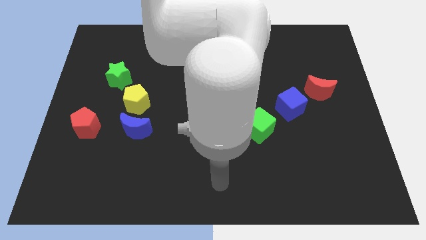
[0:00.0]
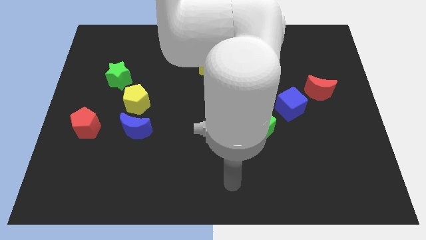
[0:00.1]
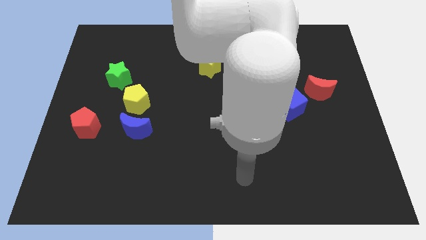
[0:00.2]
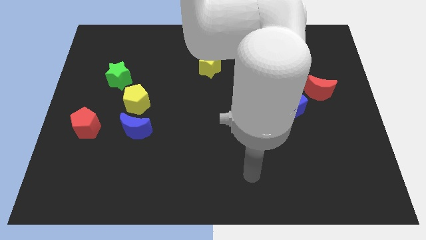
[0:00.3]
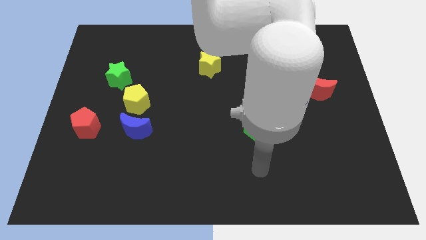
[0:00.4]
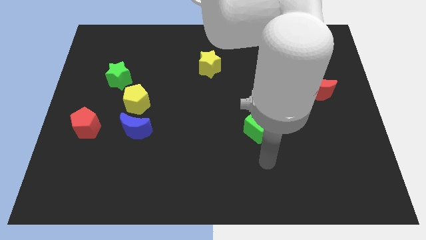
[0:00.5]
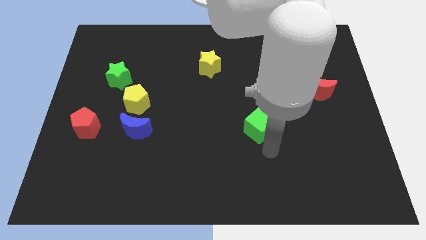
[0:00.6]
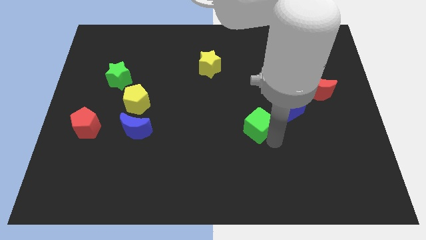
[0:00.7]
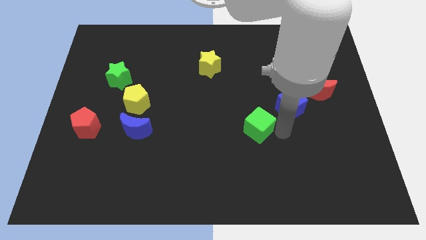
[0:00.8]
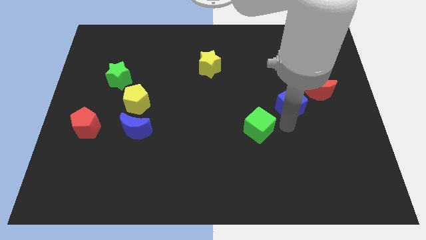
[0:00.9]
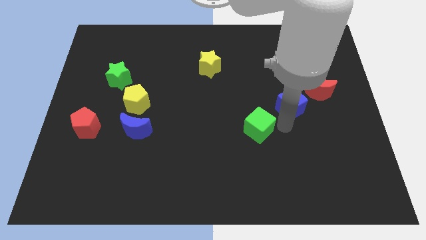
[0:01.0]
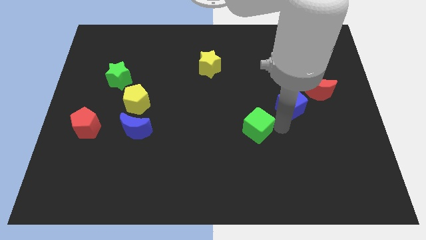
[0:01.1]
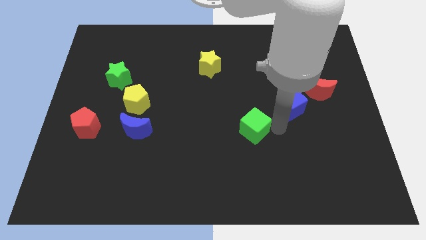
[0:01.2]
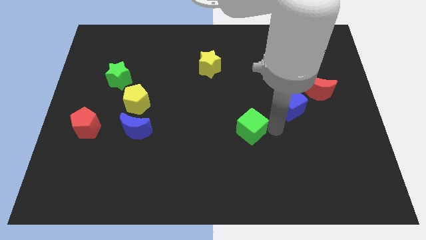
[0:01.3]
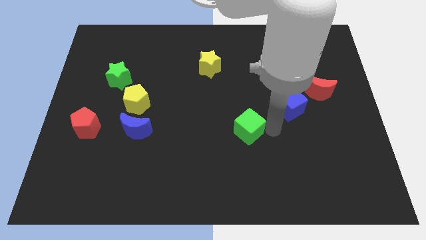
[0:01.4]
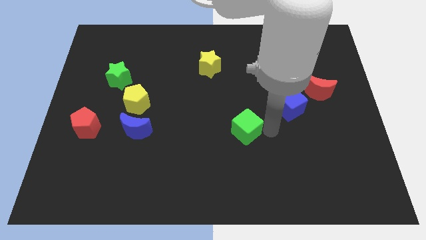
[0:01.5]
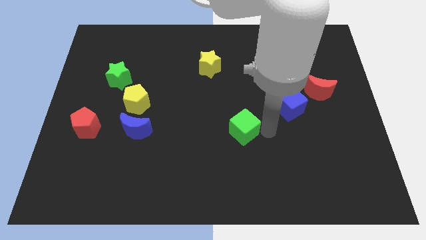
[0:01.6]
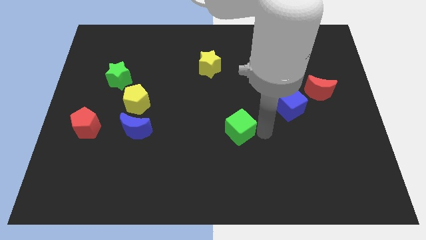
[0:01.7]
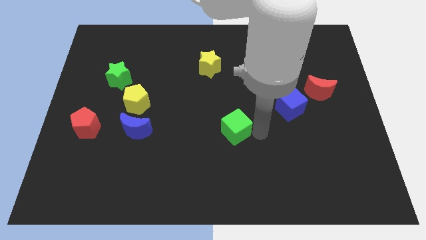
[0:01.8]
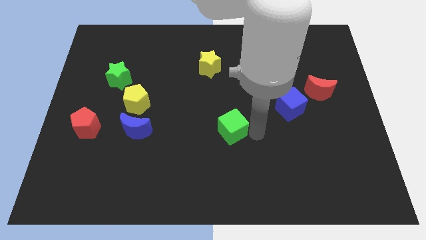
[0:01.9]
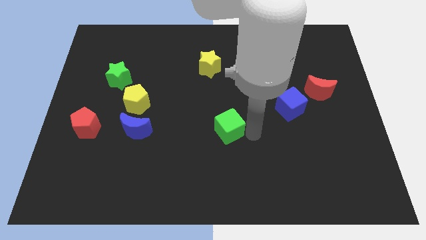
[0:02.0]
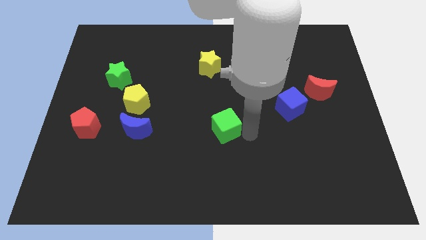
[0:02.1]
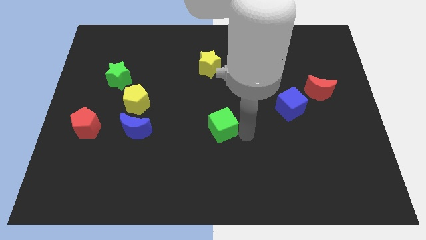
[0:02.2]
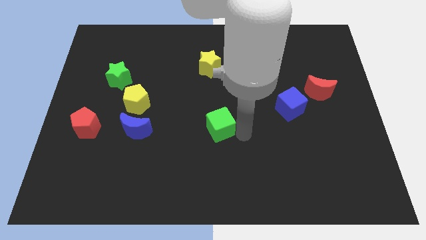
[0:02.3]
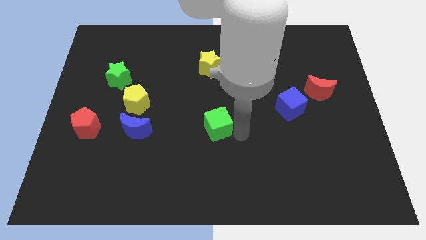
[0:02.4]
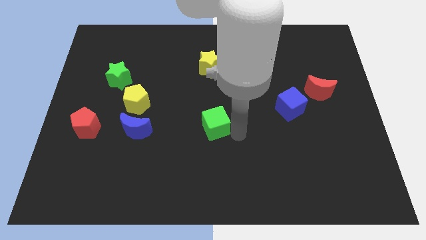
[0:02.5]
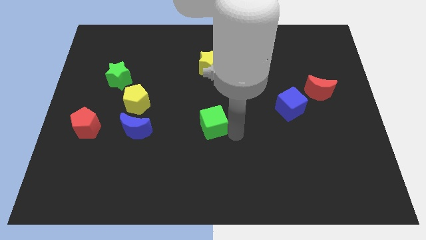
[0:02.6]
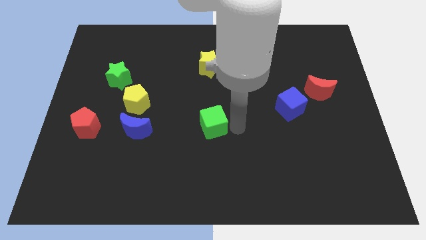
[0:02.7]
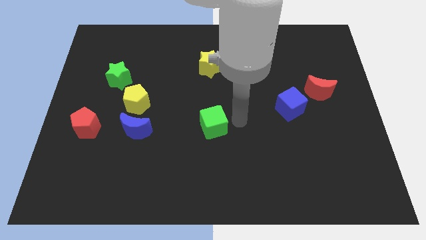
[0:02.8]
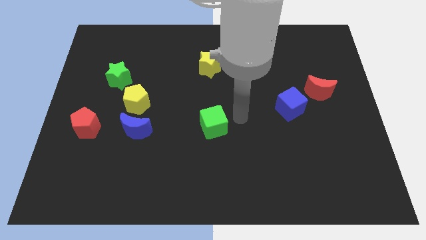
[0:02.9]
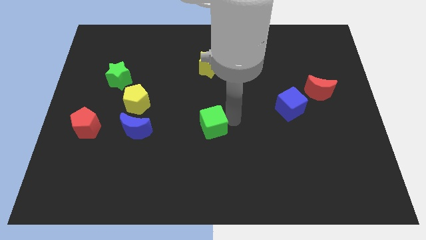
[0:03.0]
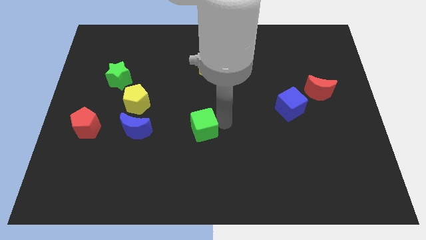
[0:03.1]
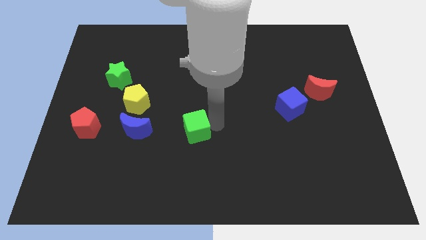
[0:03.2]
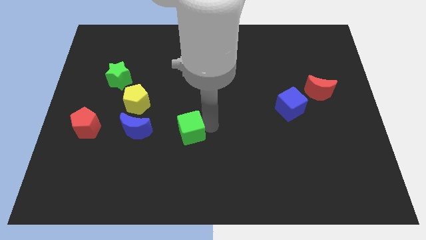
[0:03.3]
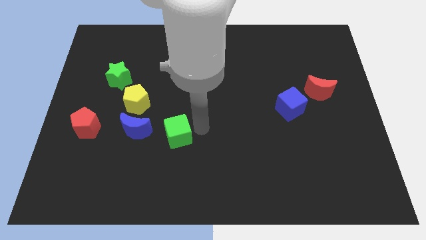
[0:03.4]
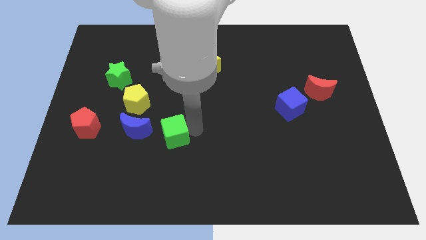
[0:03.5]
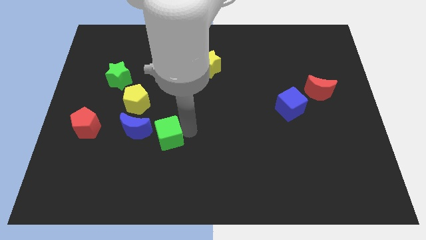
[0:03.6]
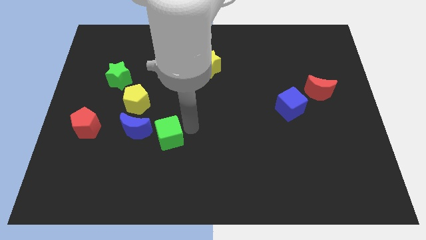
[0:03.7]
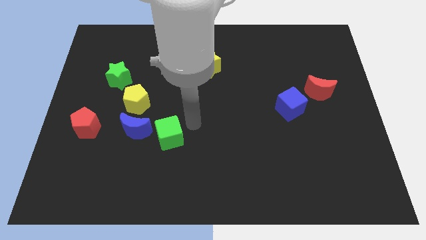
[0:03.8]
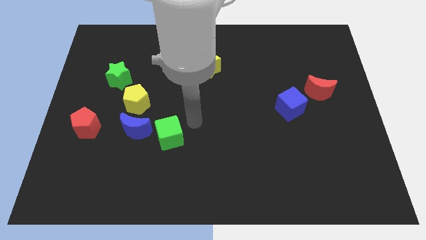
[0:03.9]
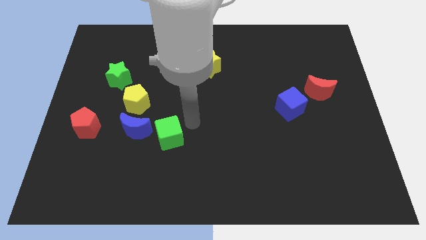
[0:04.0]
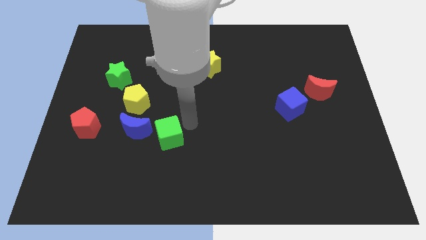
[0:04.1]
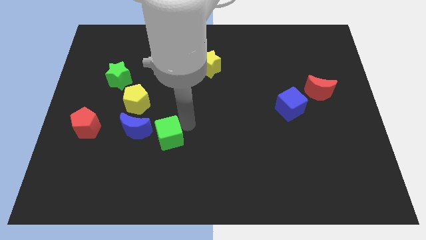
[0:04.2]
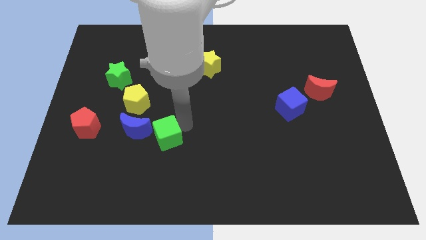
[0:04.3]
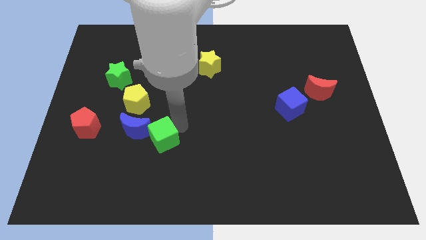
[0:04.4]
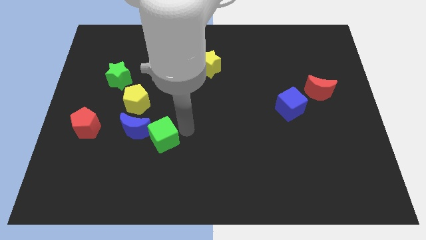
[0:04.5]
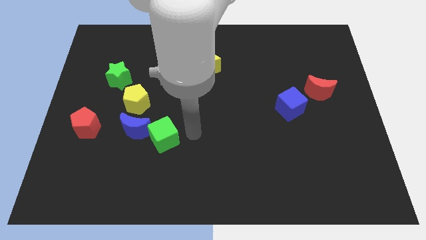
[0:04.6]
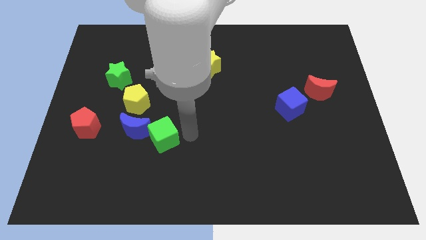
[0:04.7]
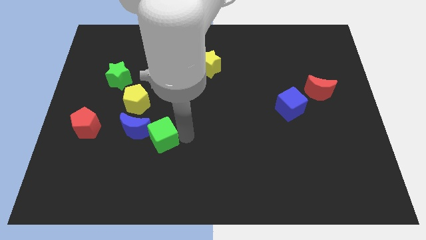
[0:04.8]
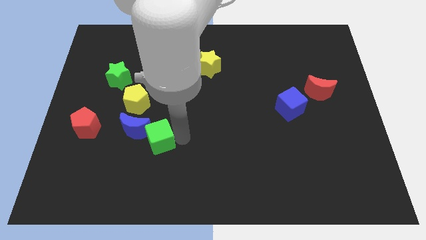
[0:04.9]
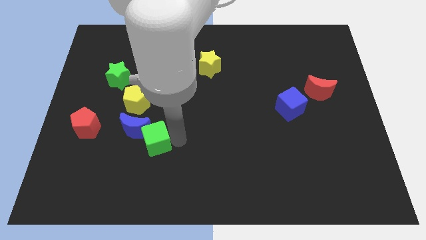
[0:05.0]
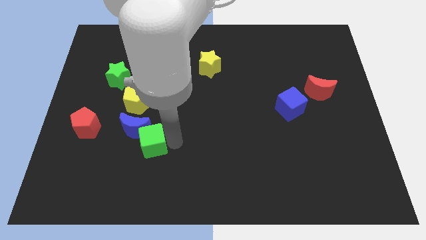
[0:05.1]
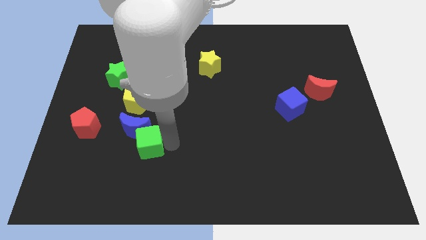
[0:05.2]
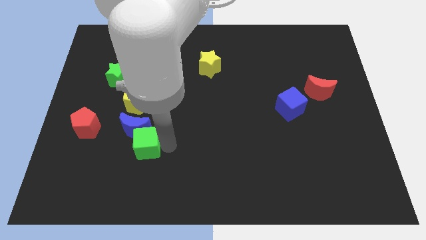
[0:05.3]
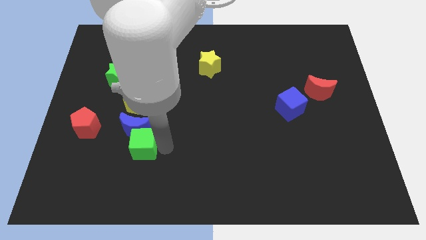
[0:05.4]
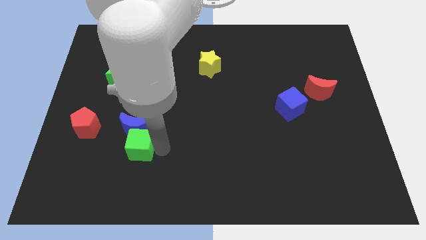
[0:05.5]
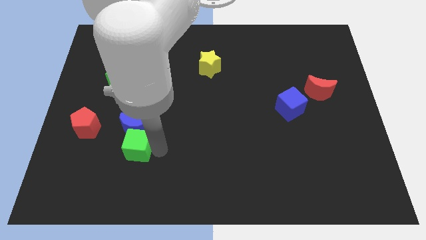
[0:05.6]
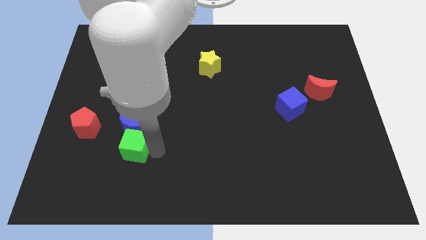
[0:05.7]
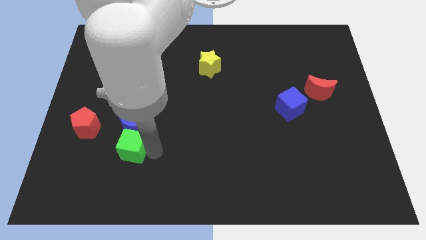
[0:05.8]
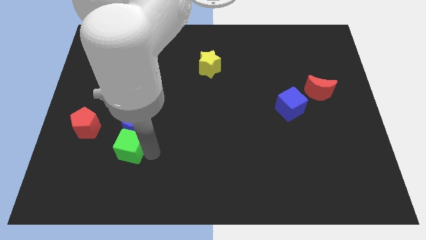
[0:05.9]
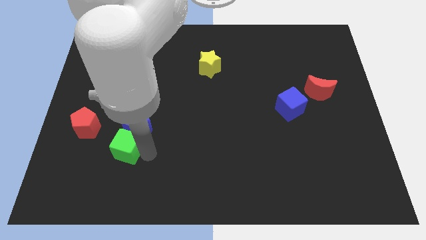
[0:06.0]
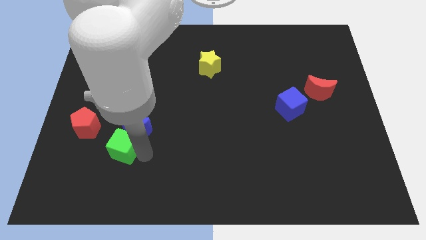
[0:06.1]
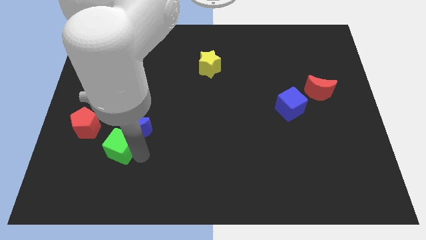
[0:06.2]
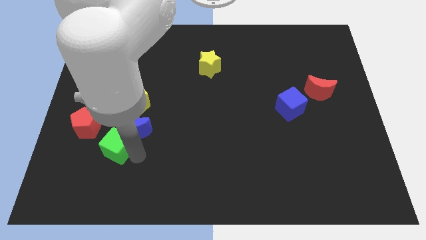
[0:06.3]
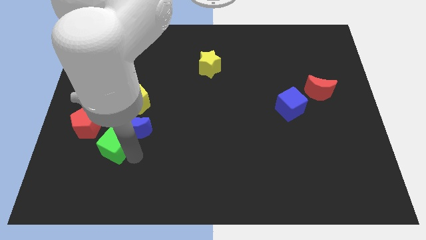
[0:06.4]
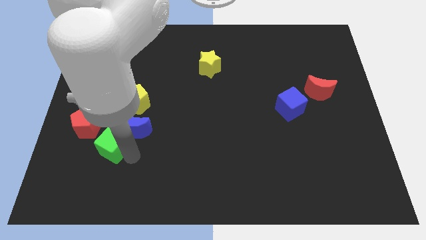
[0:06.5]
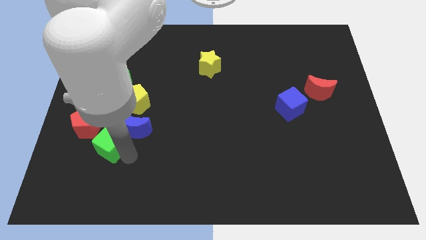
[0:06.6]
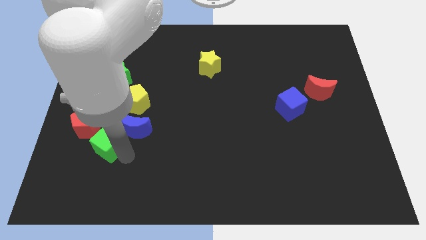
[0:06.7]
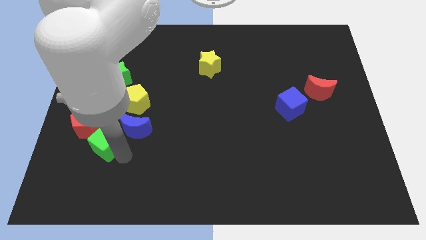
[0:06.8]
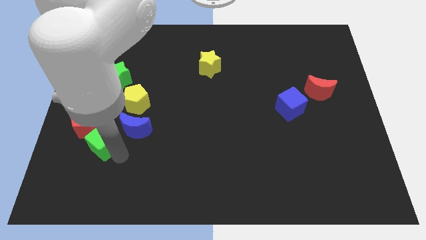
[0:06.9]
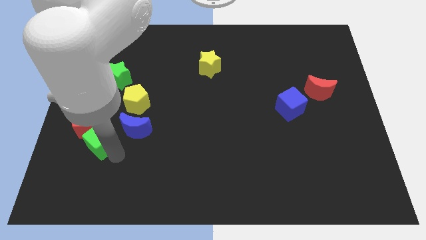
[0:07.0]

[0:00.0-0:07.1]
slide the green cube to the red pentagon

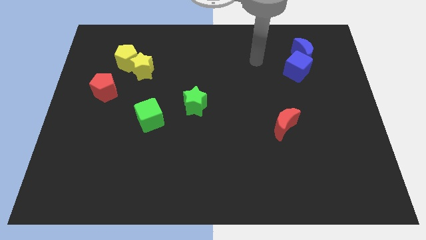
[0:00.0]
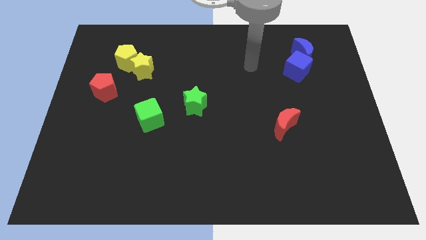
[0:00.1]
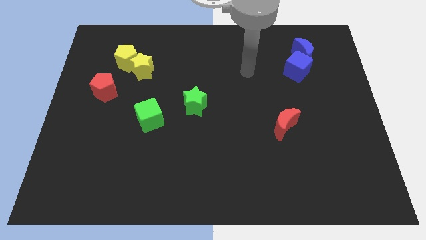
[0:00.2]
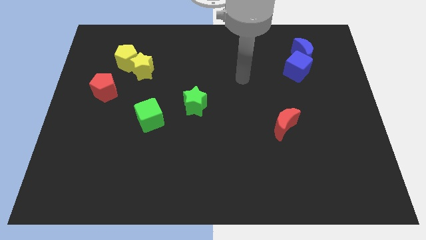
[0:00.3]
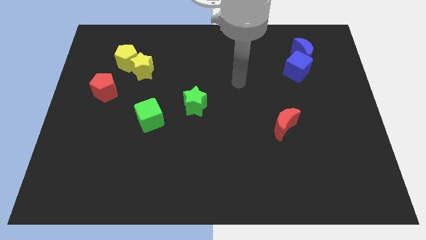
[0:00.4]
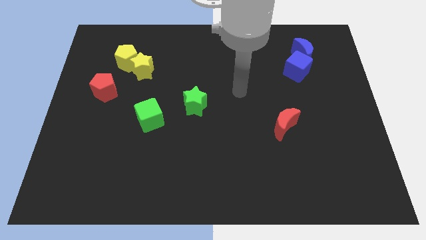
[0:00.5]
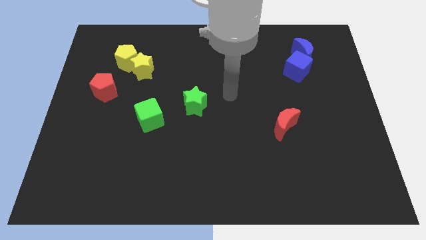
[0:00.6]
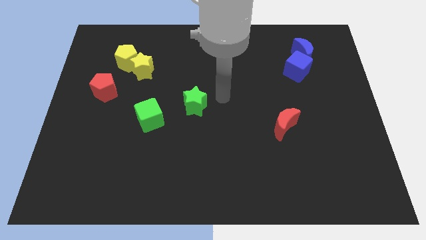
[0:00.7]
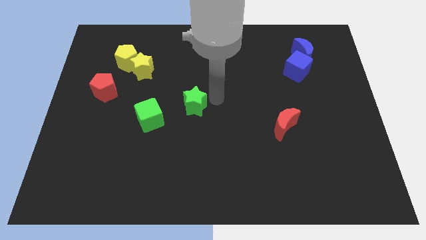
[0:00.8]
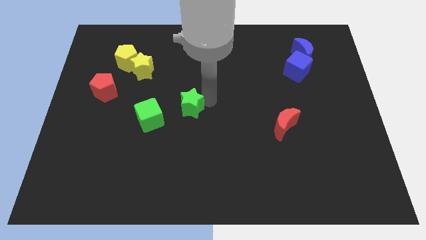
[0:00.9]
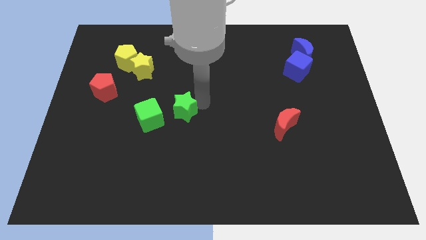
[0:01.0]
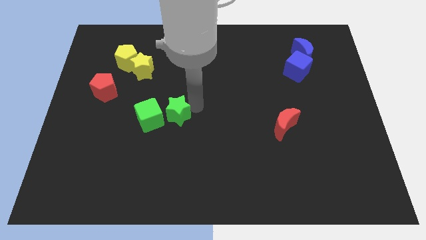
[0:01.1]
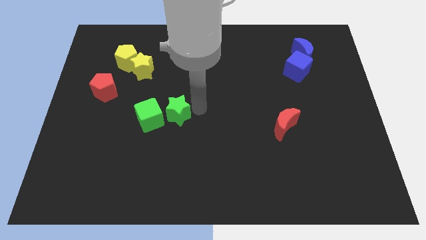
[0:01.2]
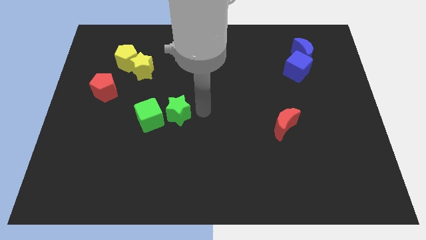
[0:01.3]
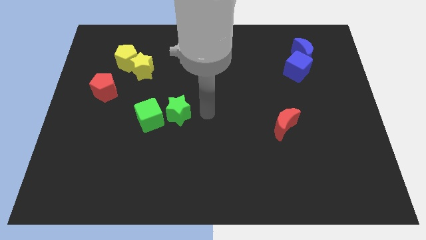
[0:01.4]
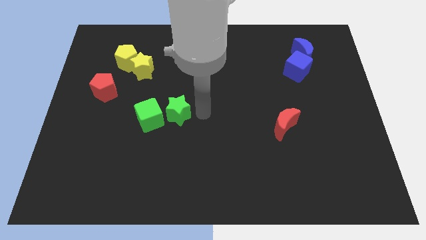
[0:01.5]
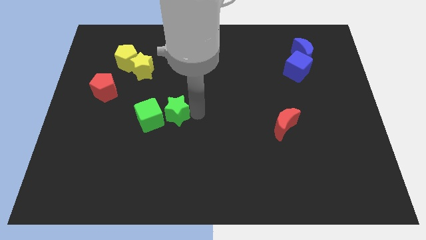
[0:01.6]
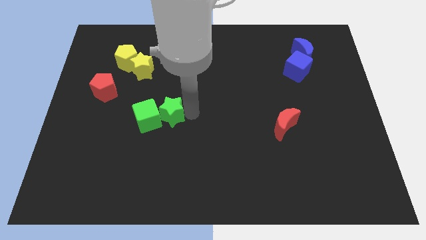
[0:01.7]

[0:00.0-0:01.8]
put the green star next to the green cube
